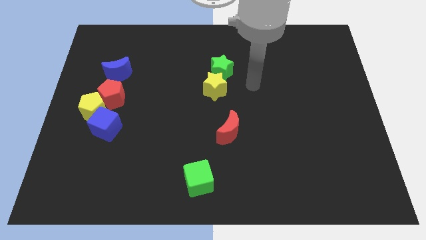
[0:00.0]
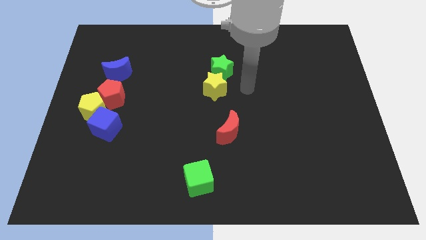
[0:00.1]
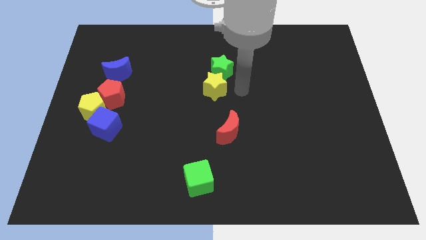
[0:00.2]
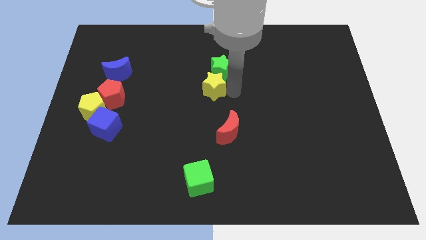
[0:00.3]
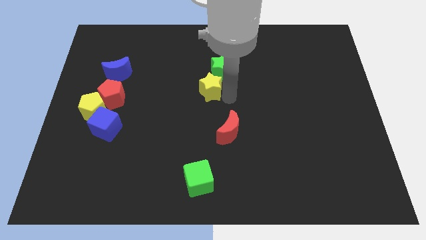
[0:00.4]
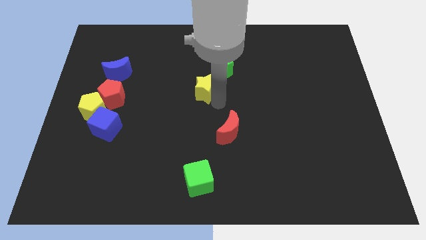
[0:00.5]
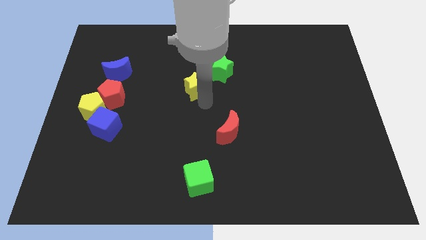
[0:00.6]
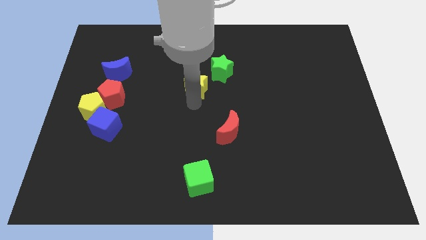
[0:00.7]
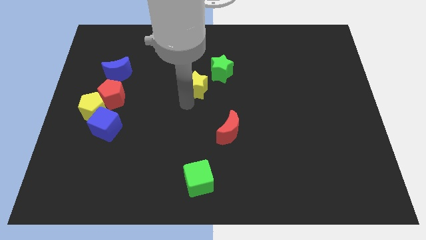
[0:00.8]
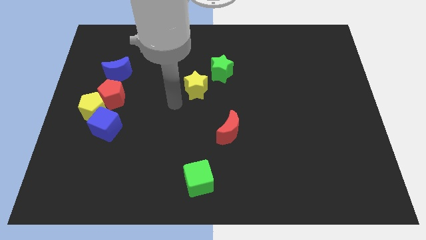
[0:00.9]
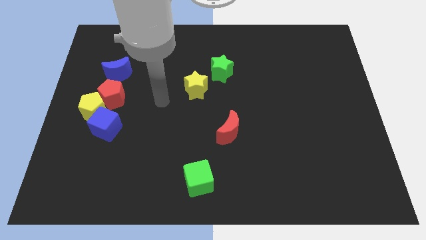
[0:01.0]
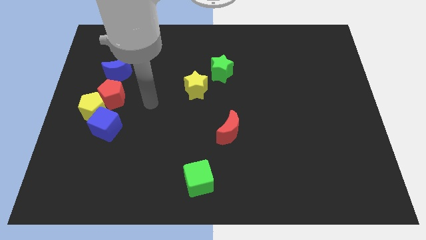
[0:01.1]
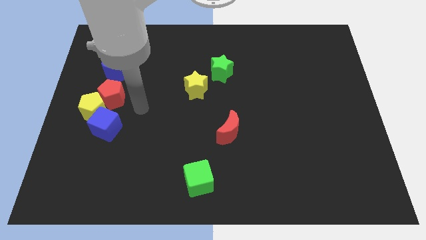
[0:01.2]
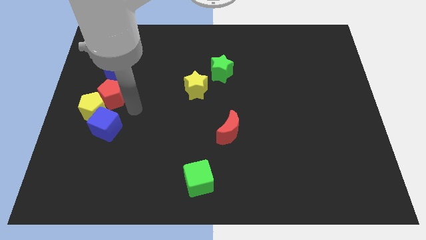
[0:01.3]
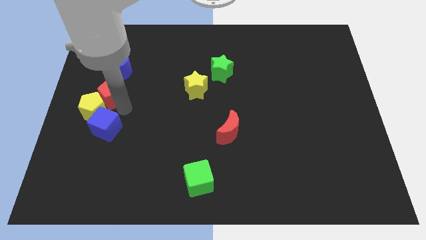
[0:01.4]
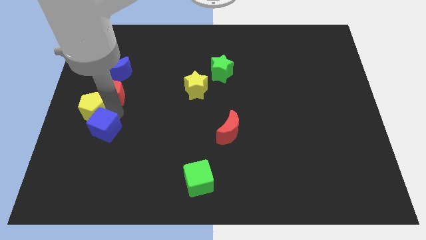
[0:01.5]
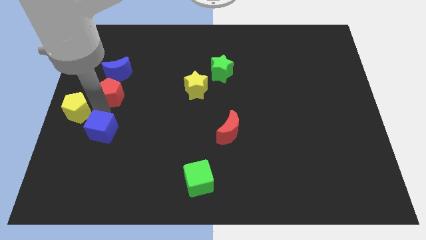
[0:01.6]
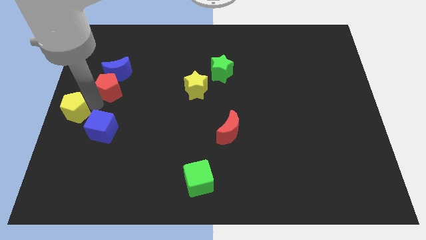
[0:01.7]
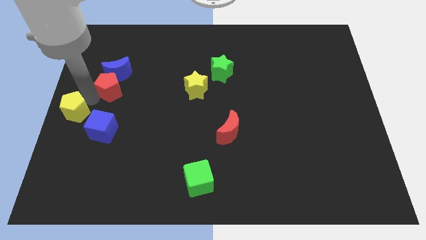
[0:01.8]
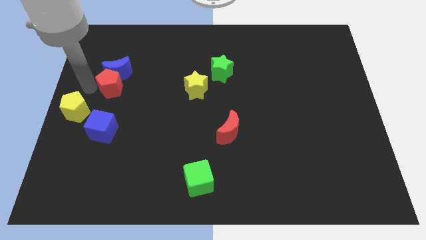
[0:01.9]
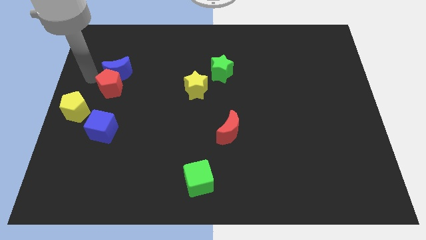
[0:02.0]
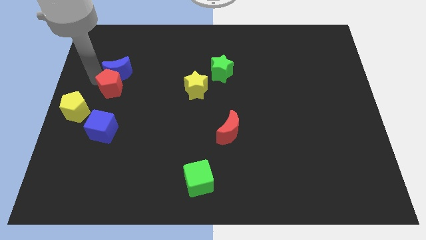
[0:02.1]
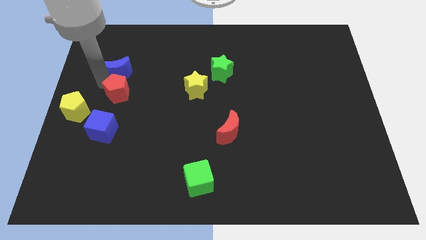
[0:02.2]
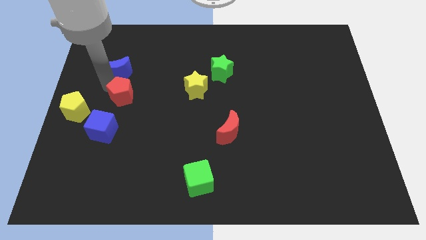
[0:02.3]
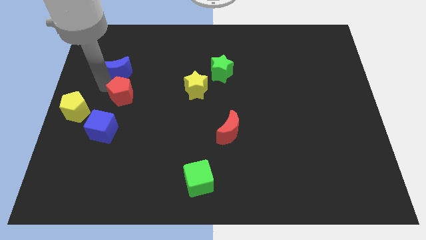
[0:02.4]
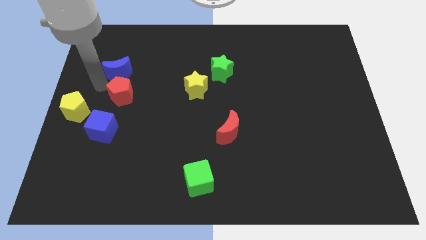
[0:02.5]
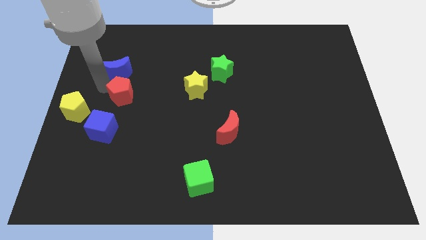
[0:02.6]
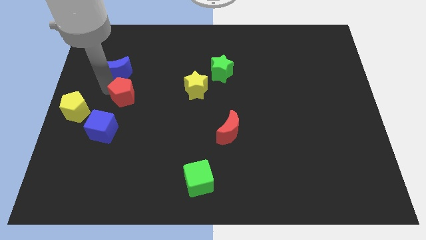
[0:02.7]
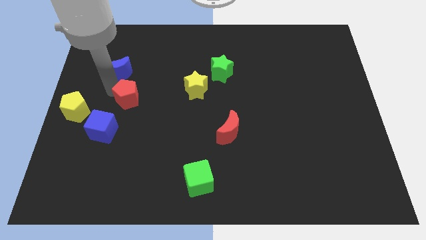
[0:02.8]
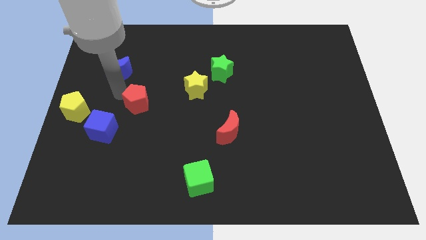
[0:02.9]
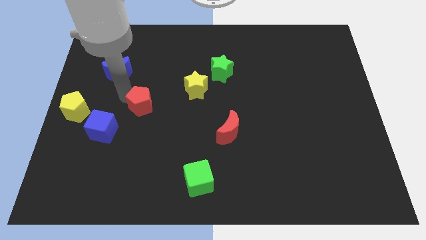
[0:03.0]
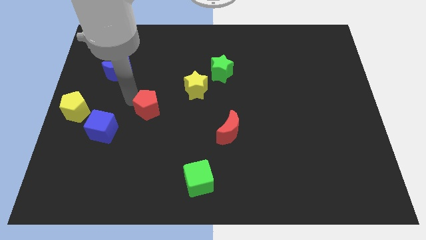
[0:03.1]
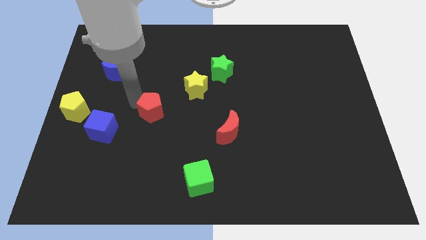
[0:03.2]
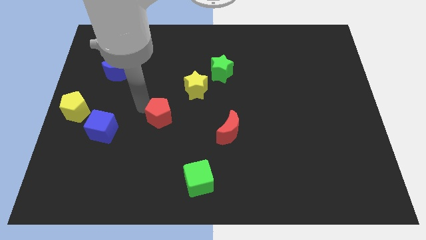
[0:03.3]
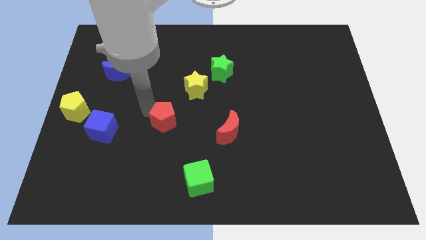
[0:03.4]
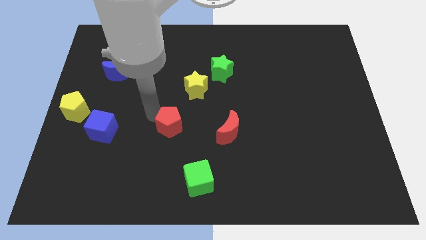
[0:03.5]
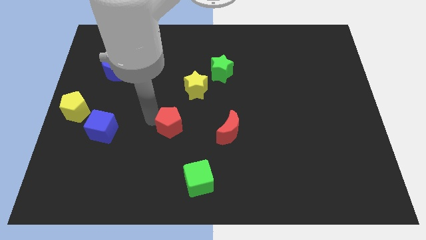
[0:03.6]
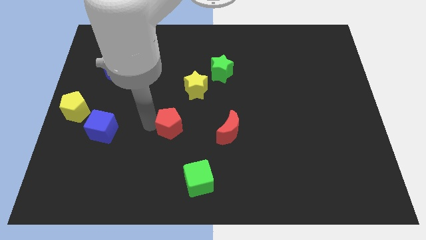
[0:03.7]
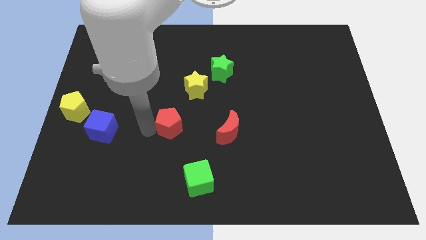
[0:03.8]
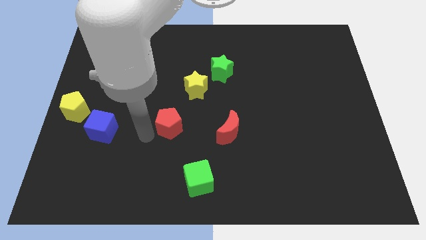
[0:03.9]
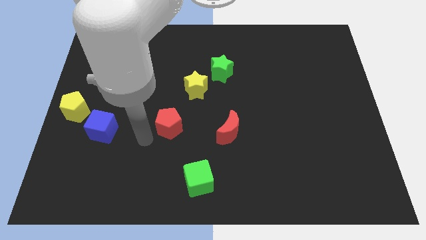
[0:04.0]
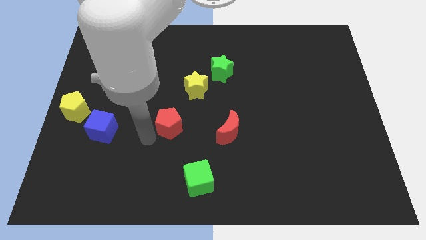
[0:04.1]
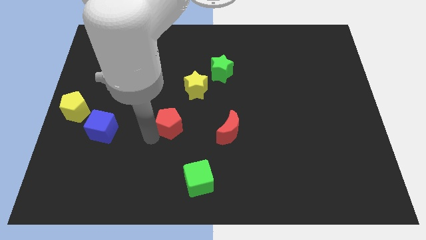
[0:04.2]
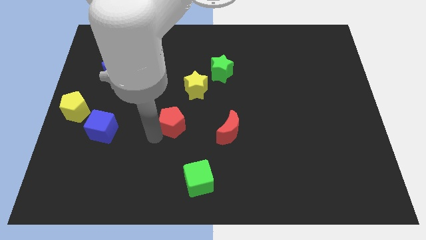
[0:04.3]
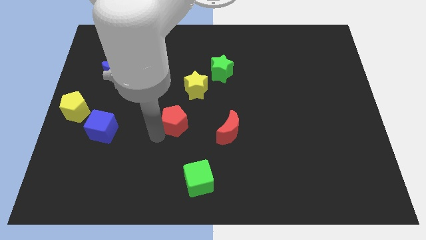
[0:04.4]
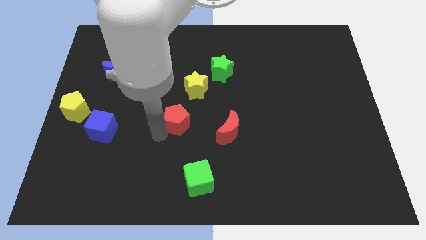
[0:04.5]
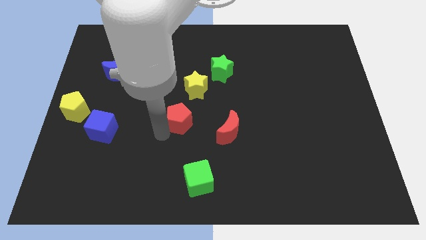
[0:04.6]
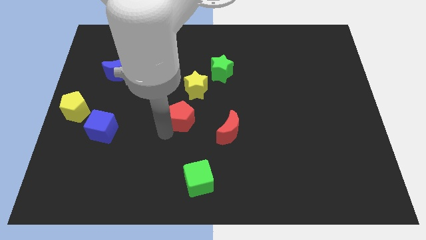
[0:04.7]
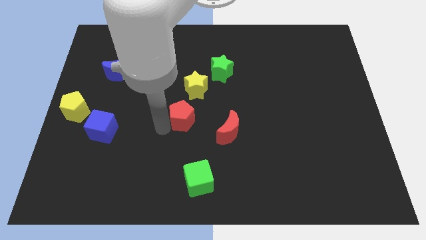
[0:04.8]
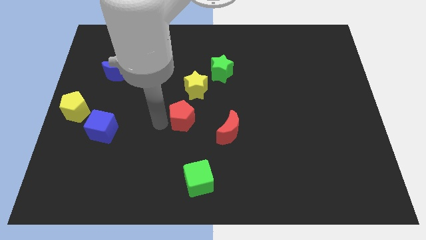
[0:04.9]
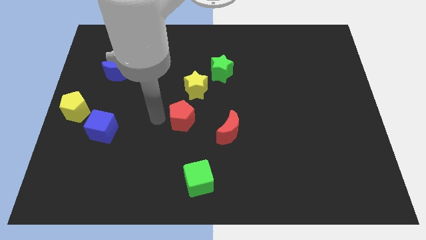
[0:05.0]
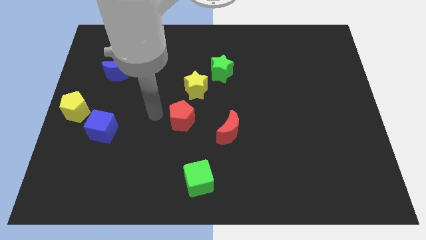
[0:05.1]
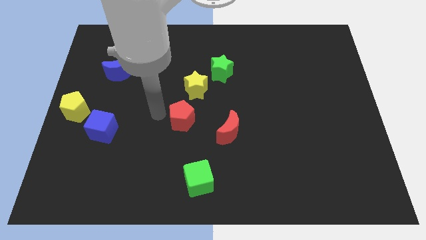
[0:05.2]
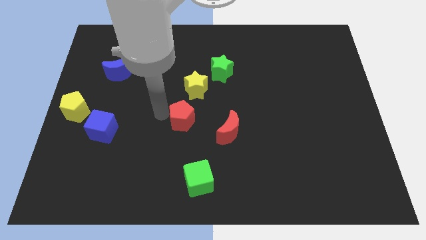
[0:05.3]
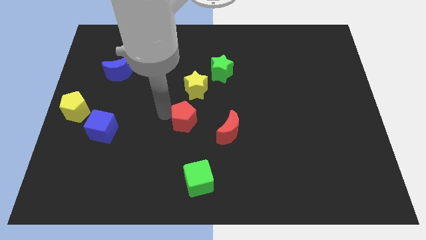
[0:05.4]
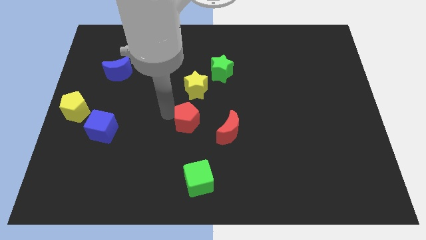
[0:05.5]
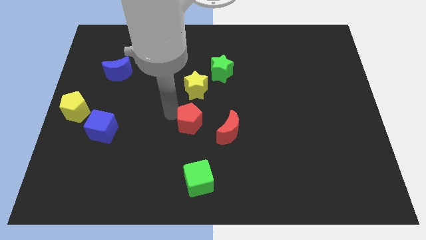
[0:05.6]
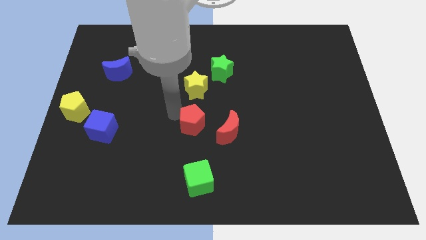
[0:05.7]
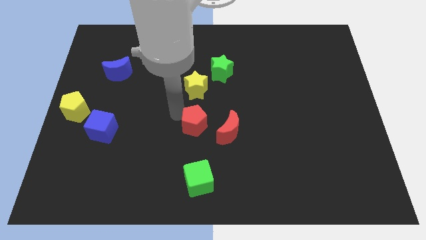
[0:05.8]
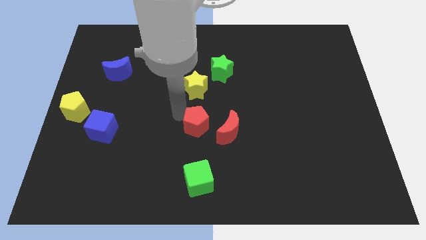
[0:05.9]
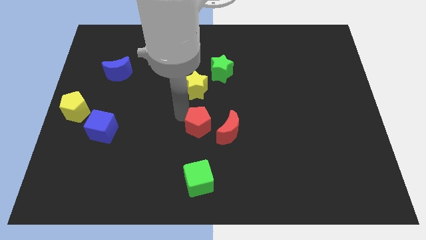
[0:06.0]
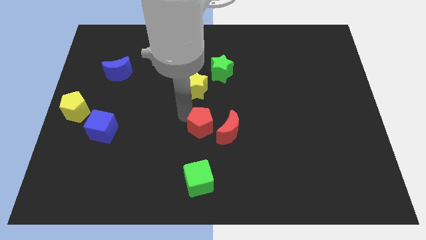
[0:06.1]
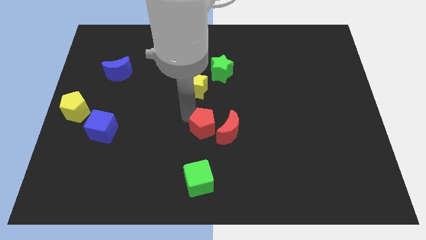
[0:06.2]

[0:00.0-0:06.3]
move the red pentagon to the red moon

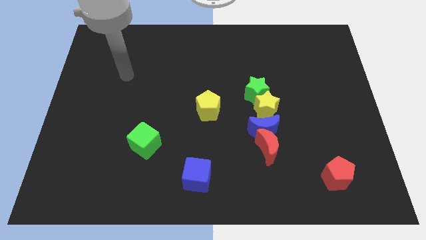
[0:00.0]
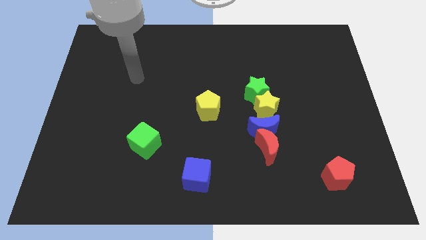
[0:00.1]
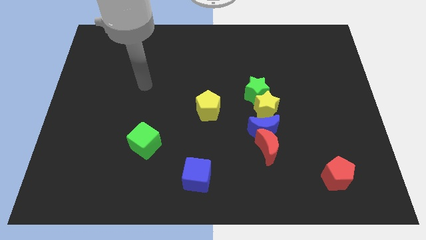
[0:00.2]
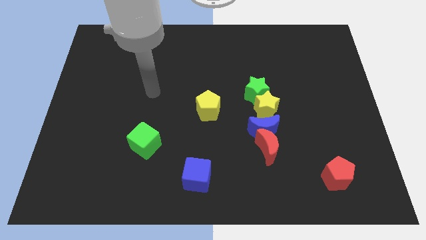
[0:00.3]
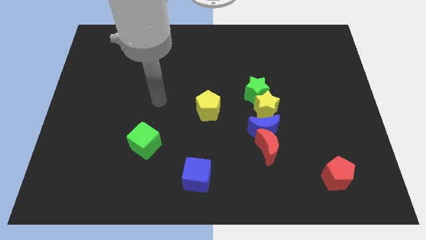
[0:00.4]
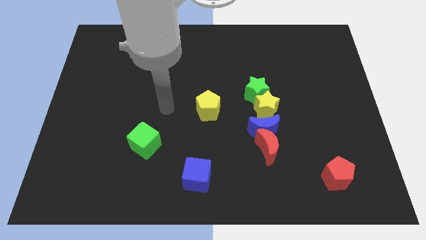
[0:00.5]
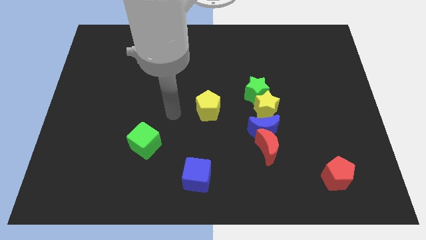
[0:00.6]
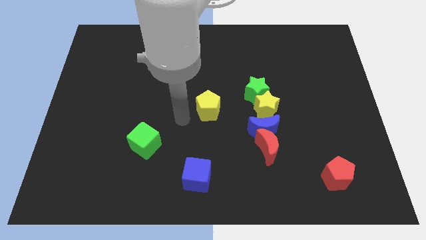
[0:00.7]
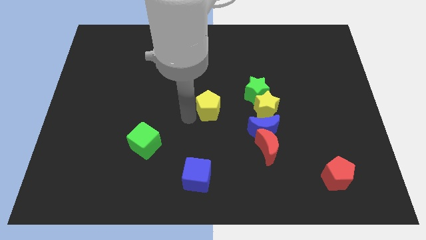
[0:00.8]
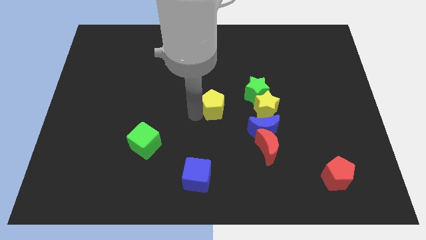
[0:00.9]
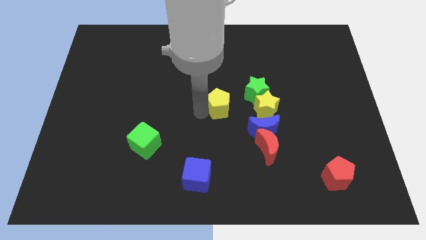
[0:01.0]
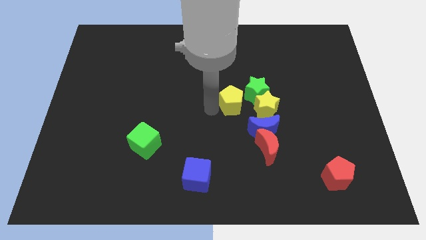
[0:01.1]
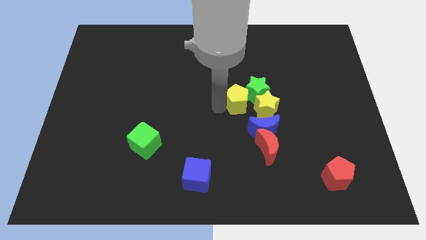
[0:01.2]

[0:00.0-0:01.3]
slide the yellow pentagon to the green star
